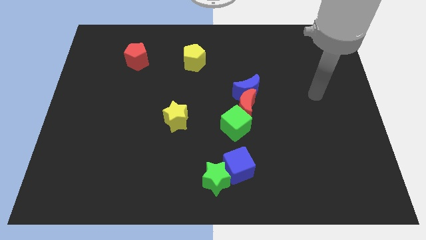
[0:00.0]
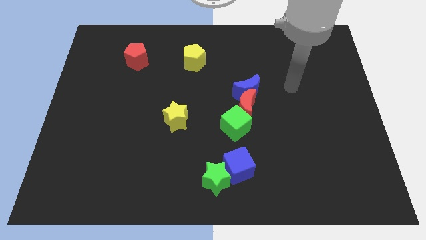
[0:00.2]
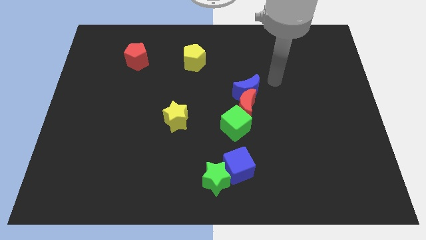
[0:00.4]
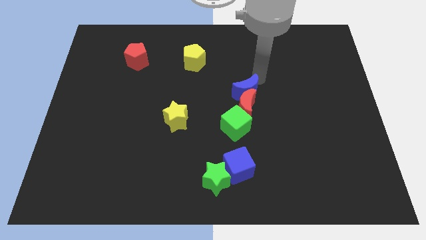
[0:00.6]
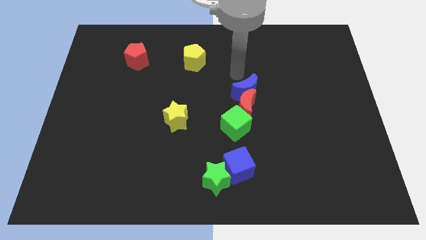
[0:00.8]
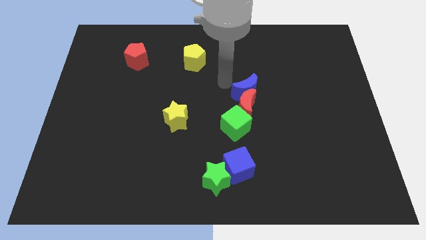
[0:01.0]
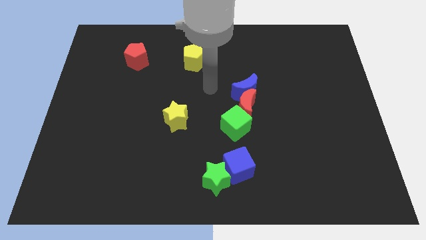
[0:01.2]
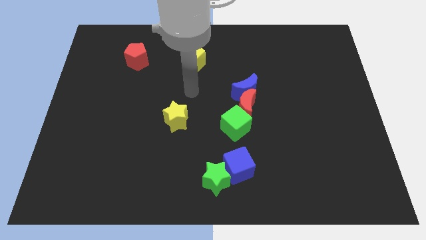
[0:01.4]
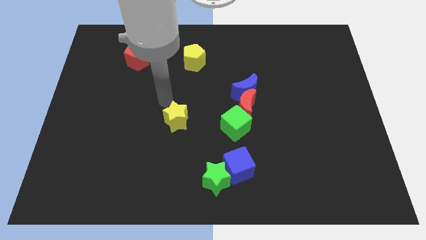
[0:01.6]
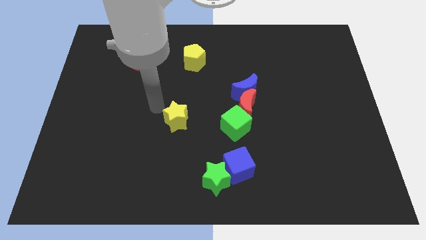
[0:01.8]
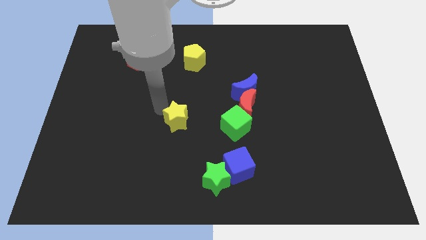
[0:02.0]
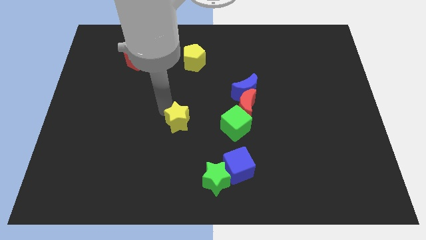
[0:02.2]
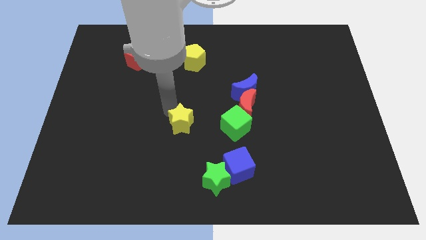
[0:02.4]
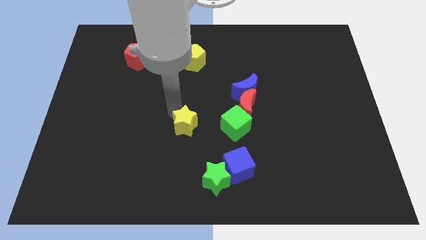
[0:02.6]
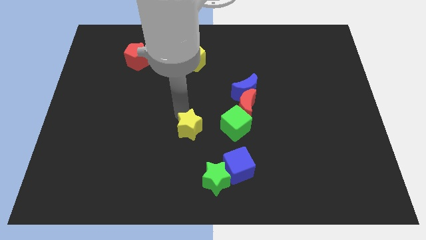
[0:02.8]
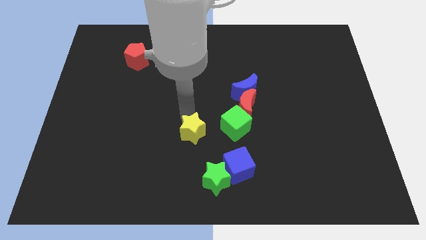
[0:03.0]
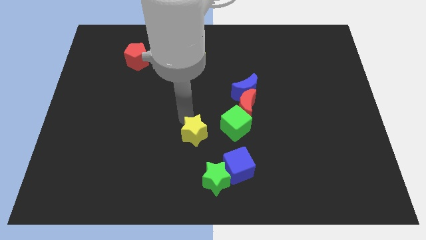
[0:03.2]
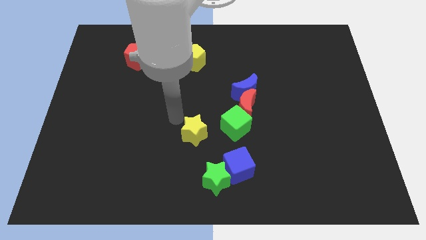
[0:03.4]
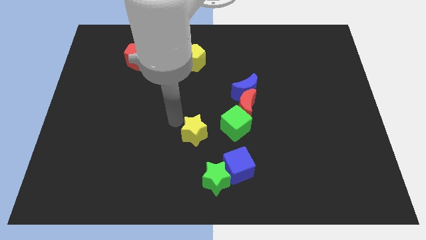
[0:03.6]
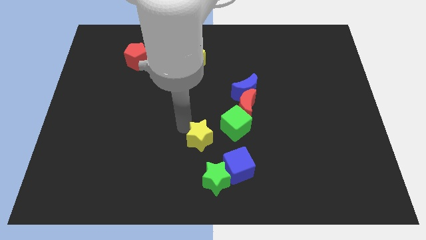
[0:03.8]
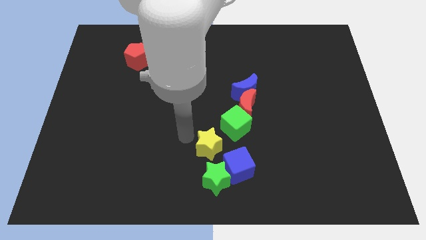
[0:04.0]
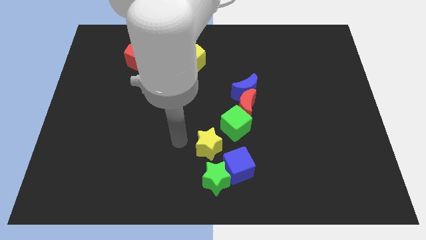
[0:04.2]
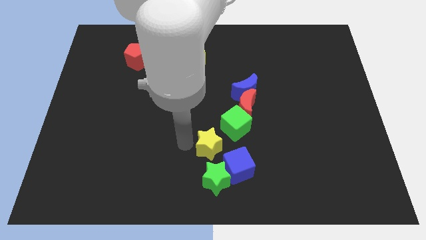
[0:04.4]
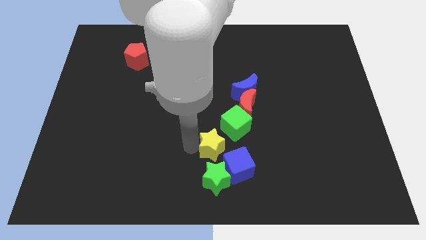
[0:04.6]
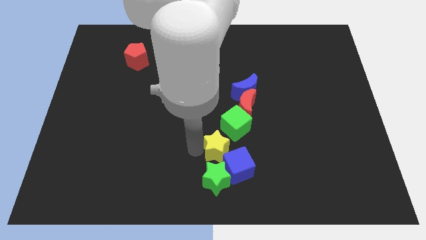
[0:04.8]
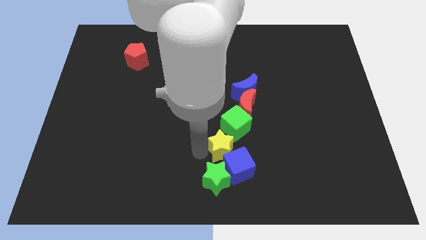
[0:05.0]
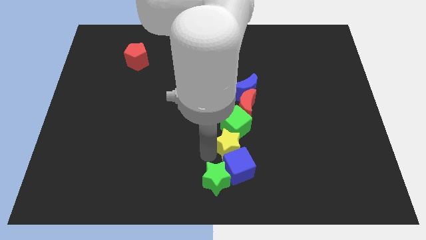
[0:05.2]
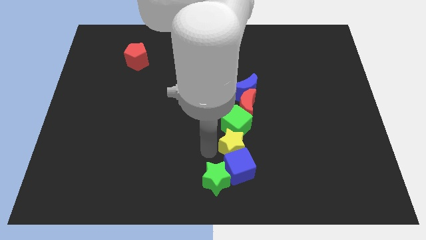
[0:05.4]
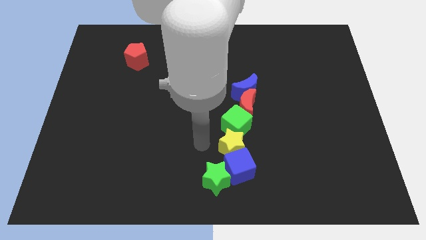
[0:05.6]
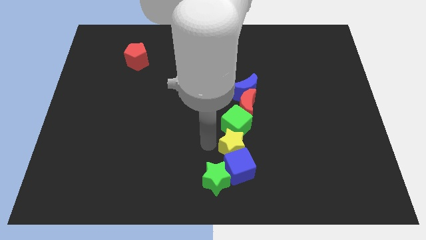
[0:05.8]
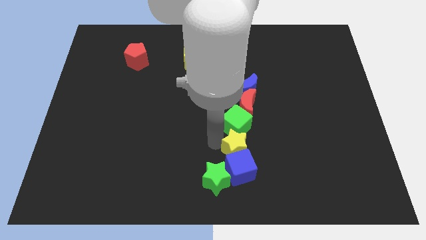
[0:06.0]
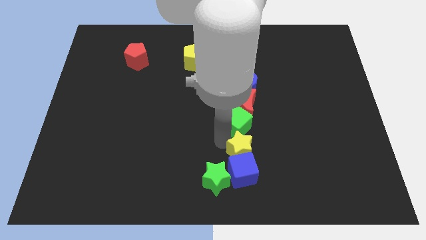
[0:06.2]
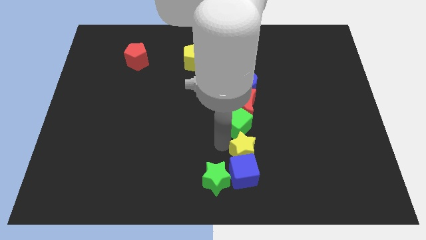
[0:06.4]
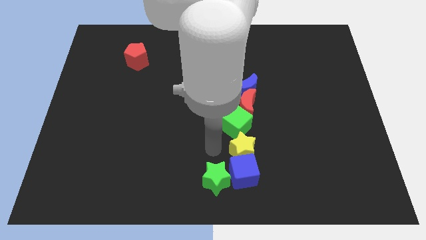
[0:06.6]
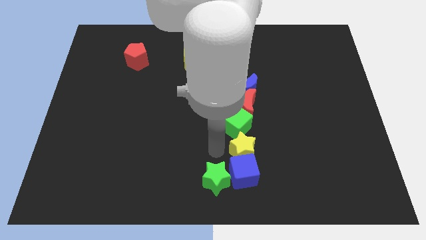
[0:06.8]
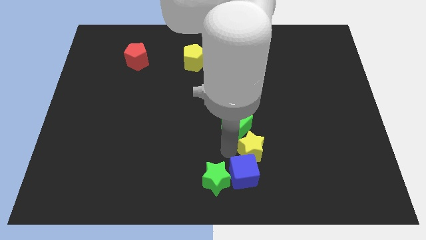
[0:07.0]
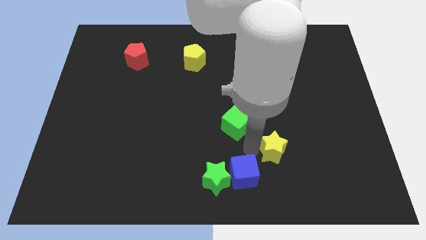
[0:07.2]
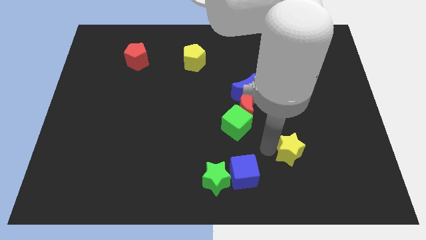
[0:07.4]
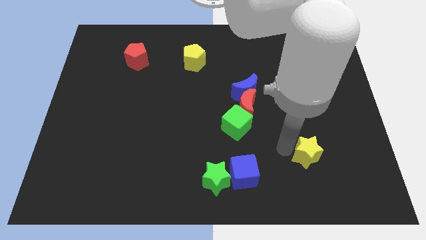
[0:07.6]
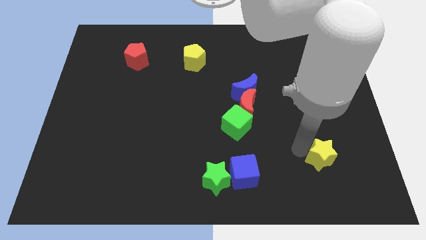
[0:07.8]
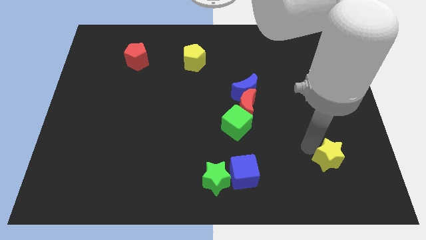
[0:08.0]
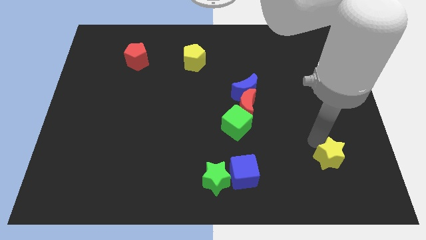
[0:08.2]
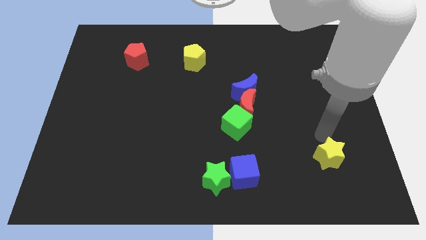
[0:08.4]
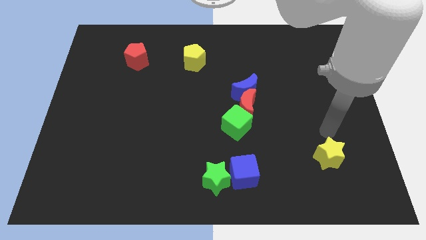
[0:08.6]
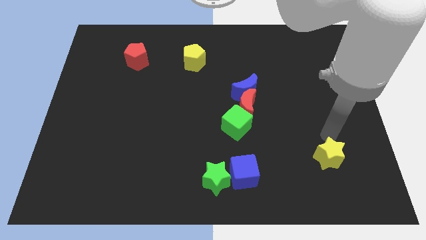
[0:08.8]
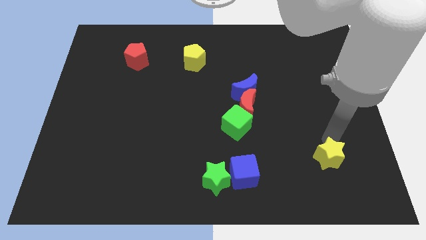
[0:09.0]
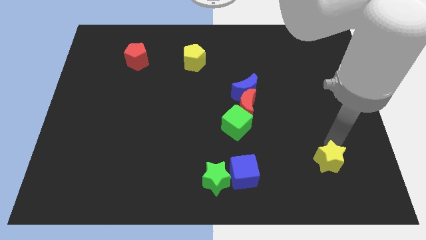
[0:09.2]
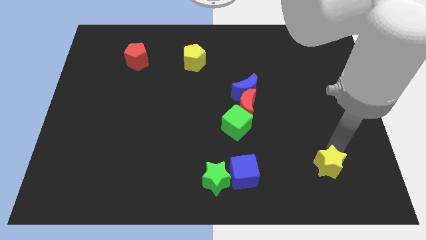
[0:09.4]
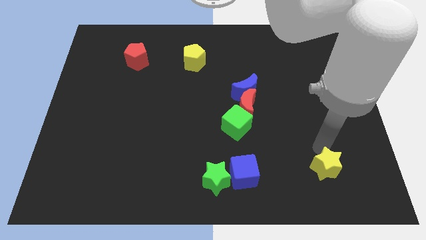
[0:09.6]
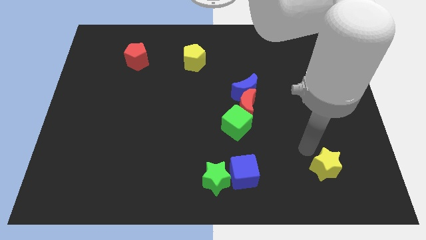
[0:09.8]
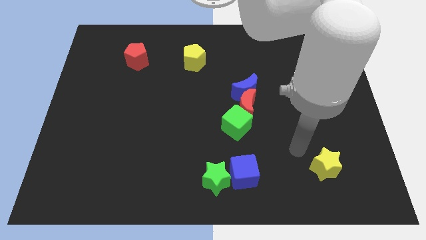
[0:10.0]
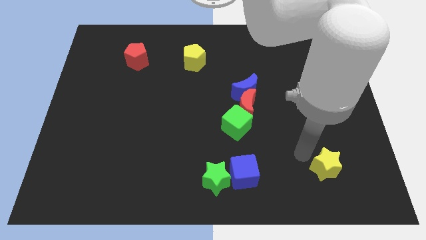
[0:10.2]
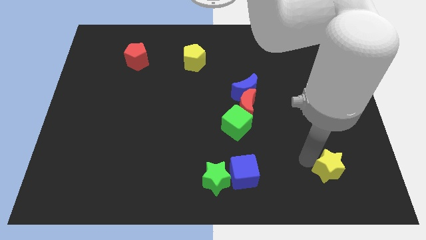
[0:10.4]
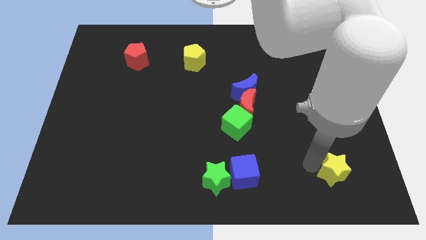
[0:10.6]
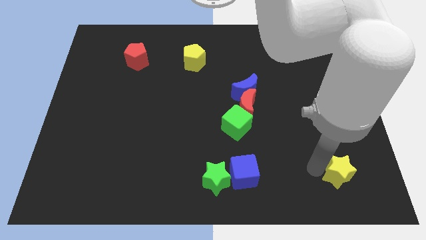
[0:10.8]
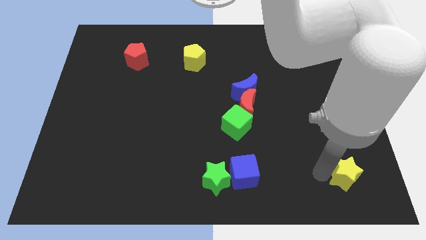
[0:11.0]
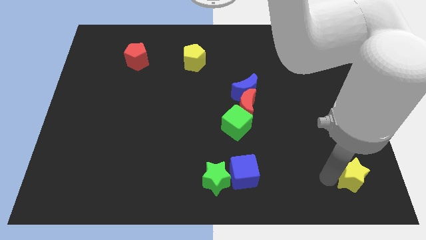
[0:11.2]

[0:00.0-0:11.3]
slide the yellow star to the bottom right of the board
